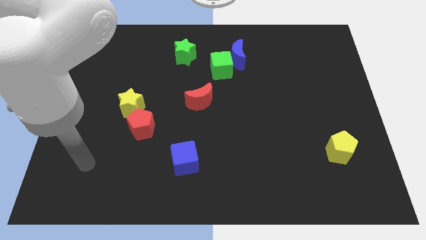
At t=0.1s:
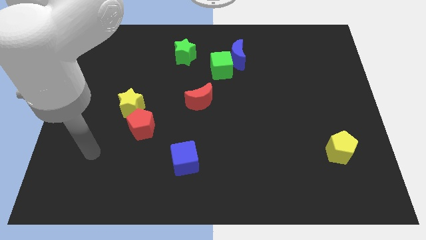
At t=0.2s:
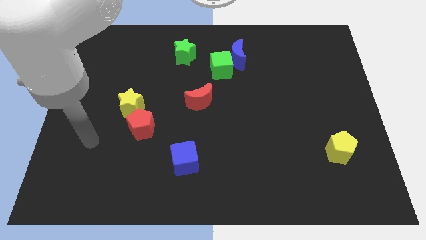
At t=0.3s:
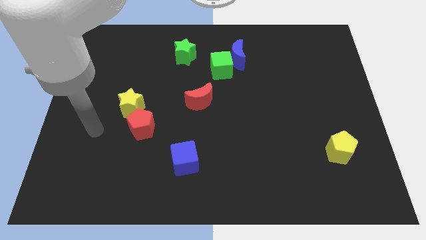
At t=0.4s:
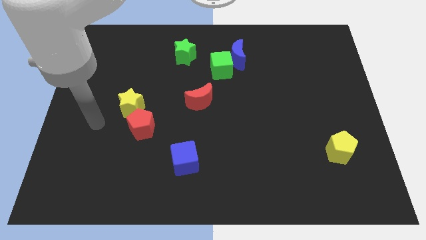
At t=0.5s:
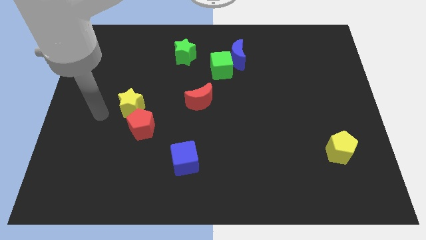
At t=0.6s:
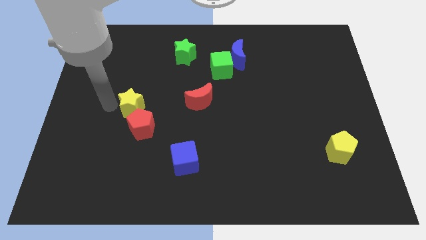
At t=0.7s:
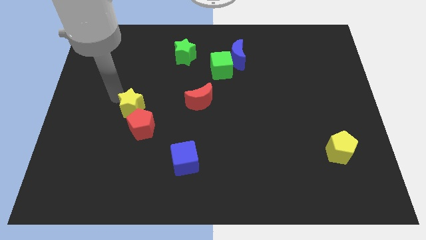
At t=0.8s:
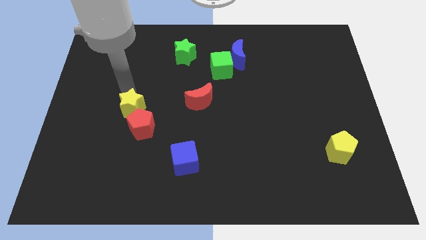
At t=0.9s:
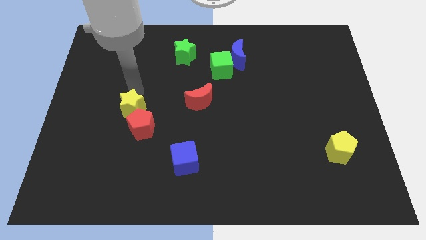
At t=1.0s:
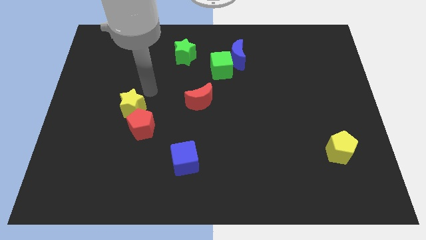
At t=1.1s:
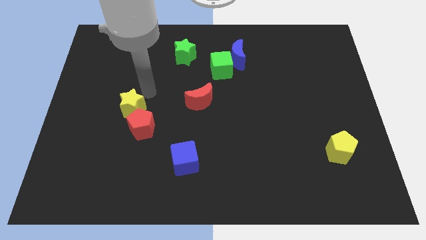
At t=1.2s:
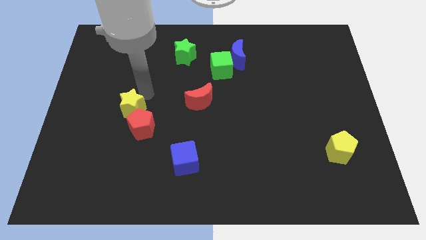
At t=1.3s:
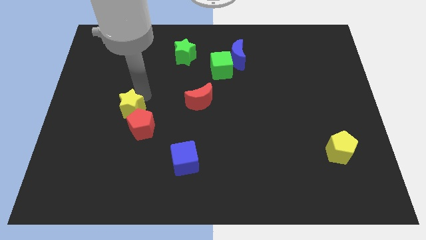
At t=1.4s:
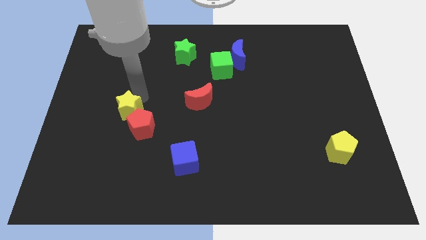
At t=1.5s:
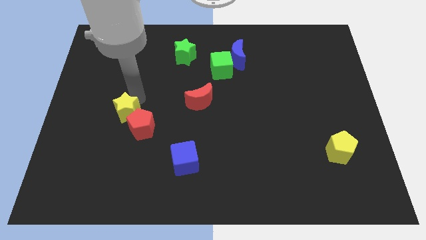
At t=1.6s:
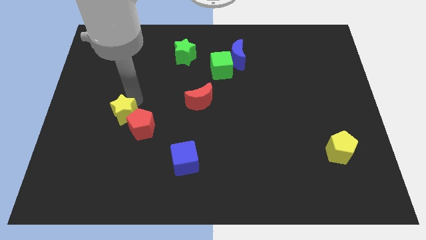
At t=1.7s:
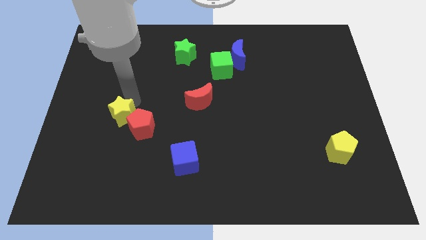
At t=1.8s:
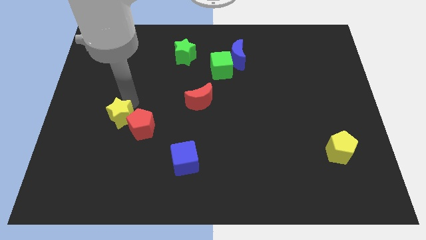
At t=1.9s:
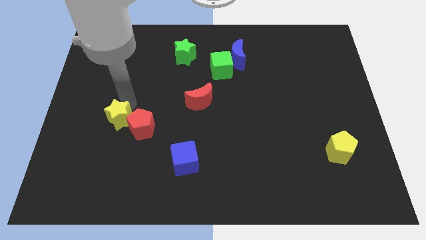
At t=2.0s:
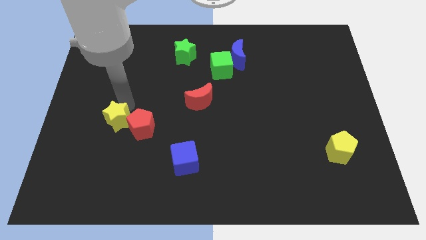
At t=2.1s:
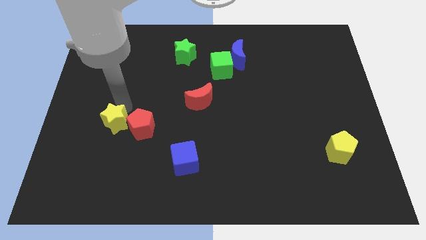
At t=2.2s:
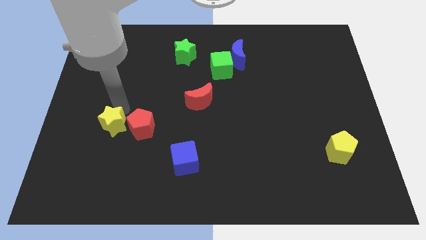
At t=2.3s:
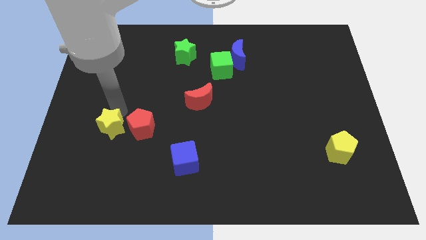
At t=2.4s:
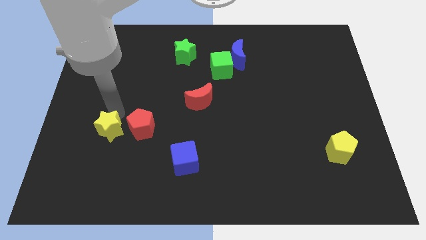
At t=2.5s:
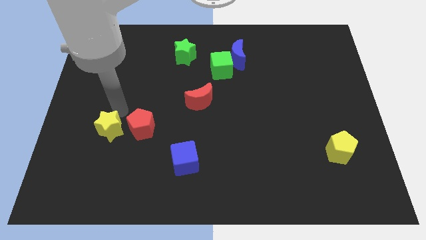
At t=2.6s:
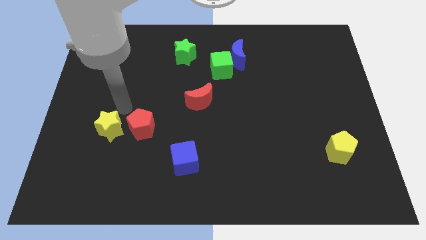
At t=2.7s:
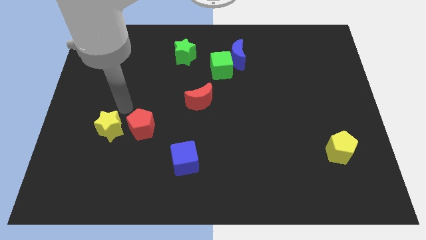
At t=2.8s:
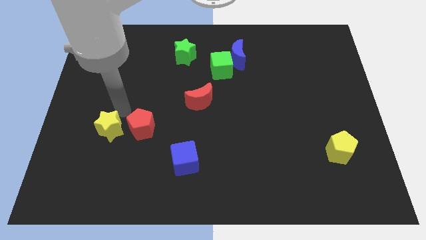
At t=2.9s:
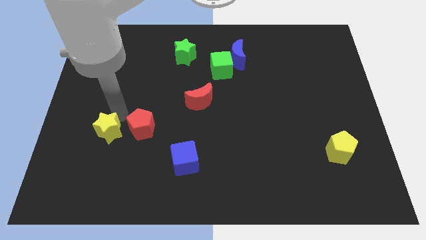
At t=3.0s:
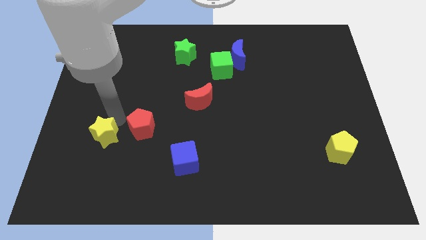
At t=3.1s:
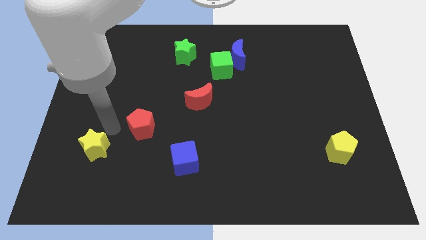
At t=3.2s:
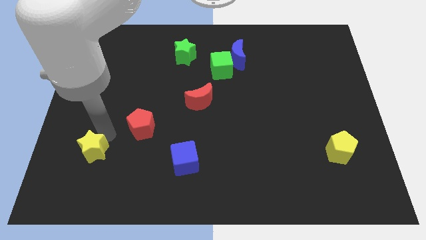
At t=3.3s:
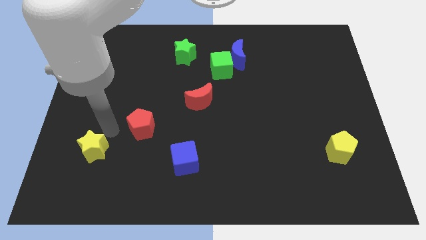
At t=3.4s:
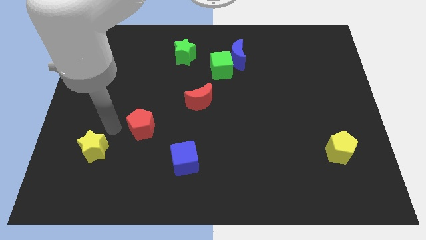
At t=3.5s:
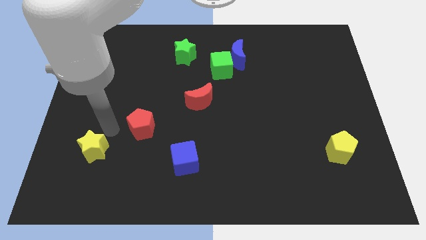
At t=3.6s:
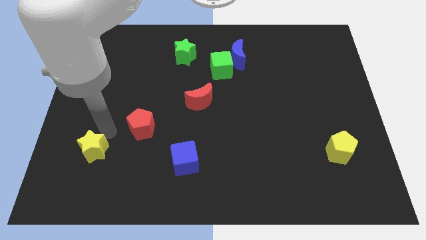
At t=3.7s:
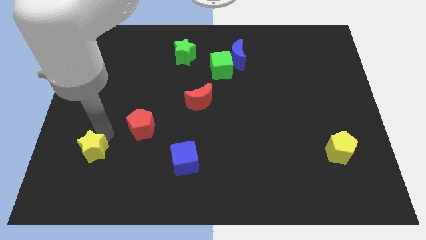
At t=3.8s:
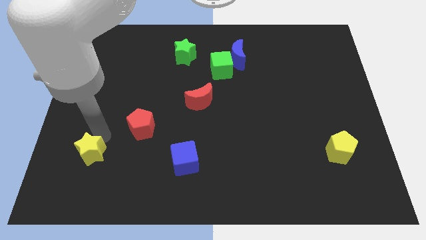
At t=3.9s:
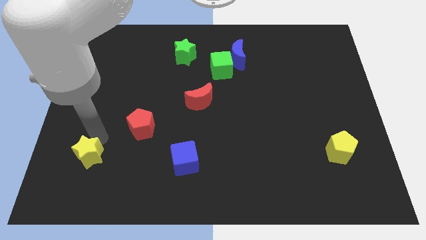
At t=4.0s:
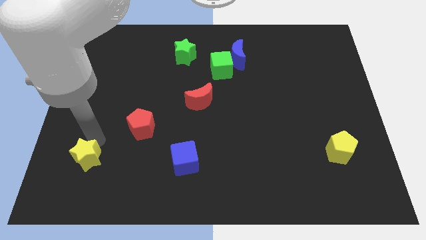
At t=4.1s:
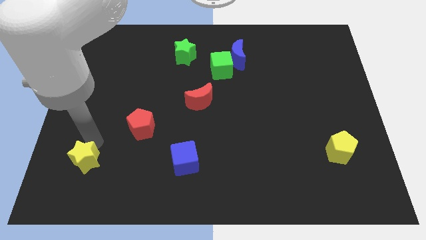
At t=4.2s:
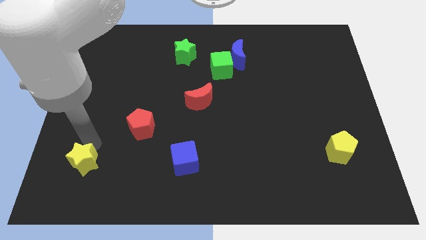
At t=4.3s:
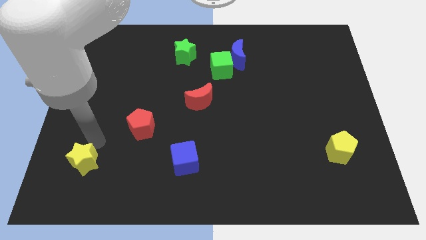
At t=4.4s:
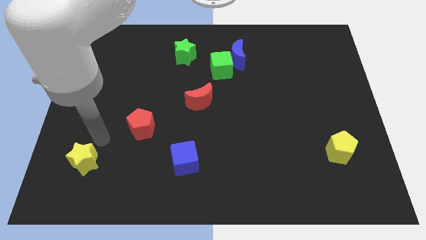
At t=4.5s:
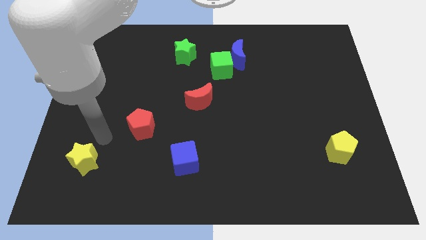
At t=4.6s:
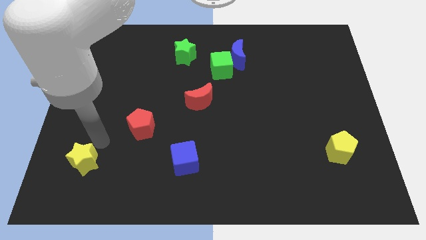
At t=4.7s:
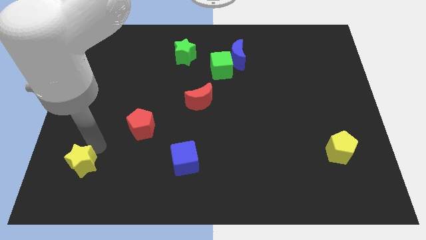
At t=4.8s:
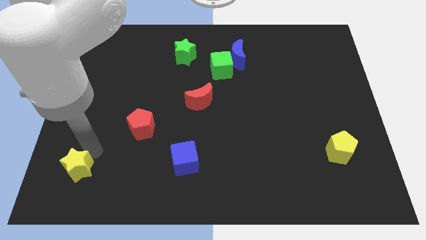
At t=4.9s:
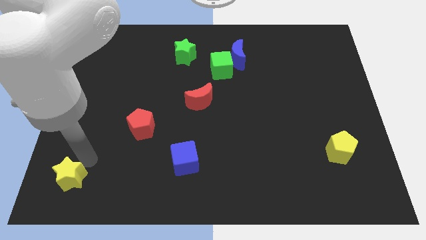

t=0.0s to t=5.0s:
move the yellow star to the bottom left of the board

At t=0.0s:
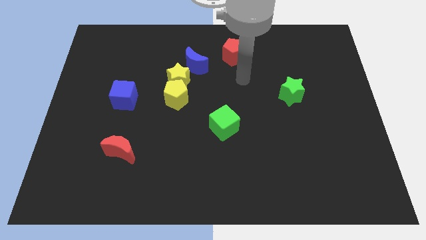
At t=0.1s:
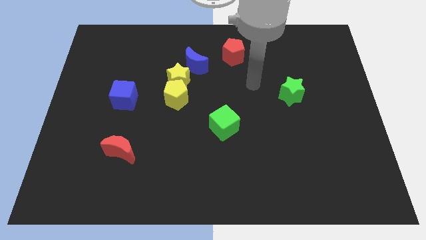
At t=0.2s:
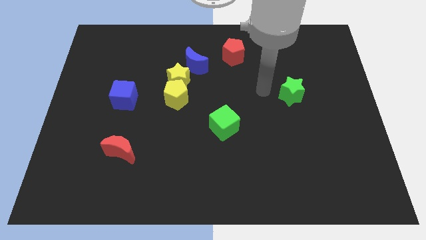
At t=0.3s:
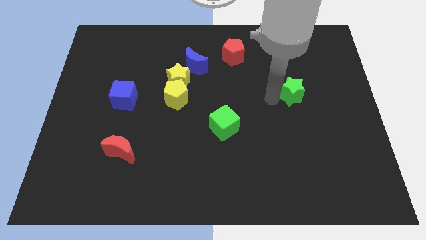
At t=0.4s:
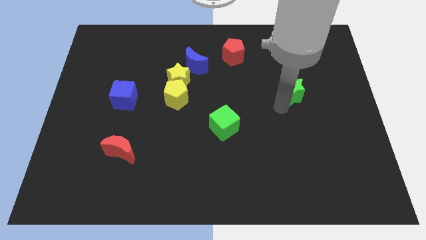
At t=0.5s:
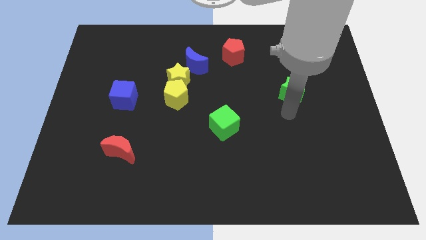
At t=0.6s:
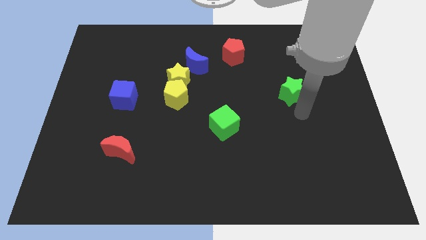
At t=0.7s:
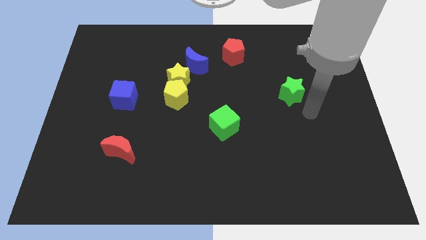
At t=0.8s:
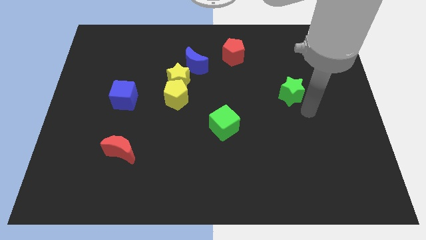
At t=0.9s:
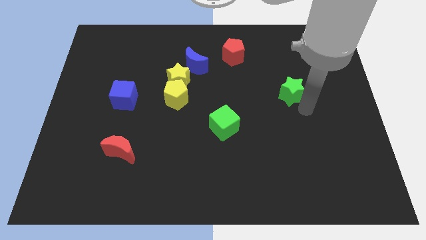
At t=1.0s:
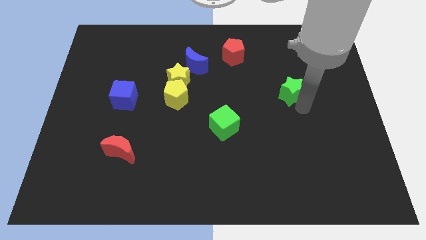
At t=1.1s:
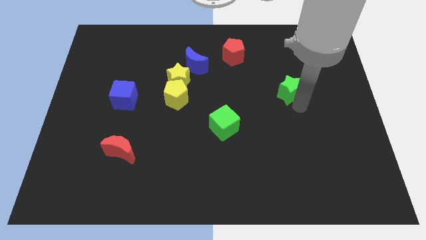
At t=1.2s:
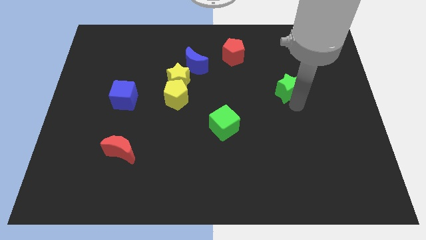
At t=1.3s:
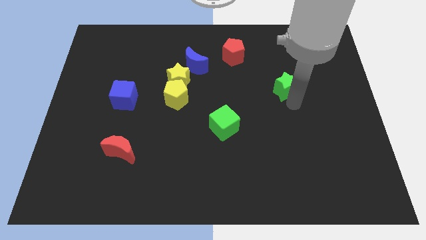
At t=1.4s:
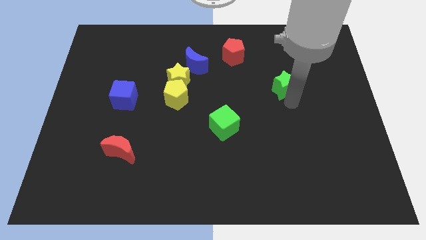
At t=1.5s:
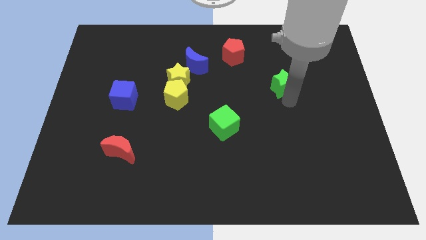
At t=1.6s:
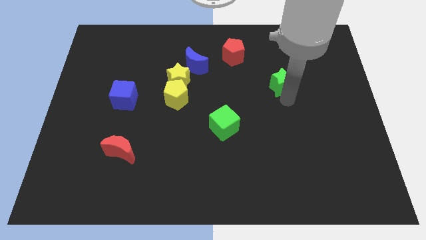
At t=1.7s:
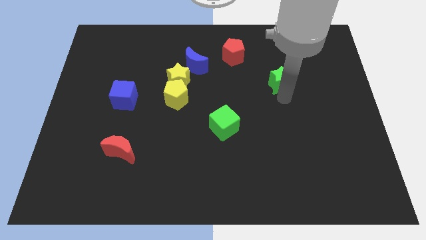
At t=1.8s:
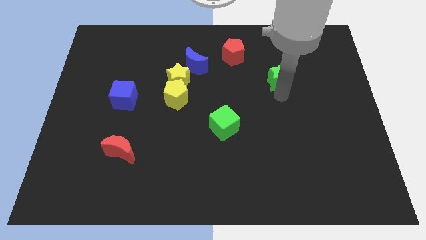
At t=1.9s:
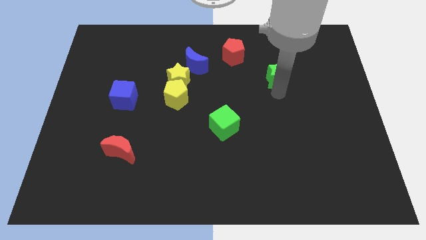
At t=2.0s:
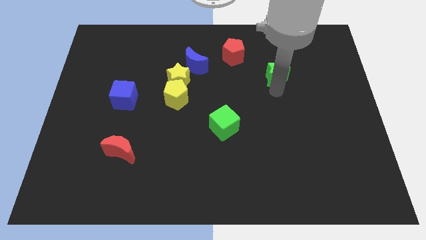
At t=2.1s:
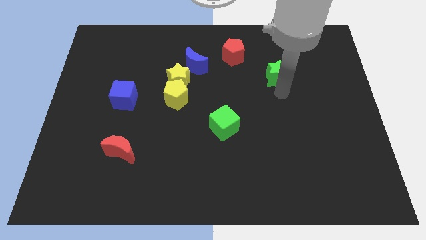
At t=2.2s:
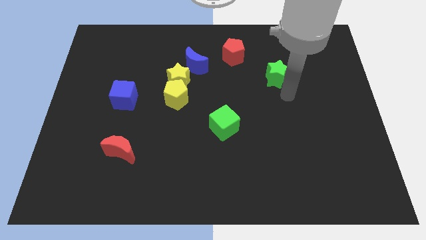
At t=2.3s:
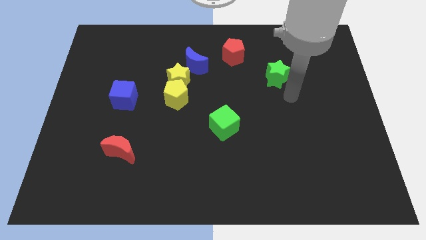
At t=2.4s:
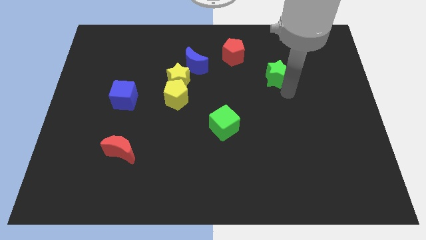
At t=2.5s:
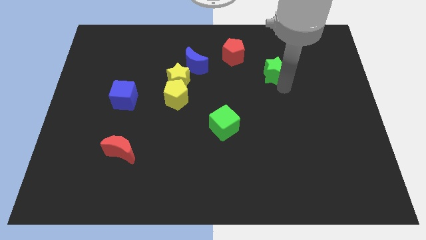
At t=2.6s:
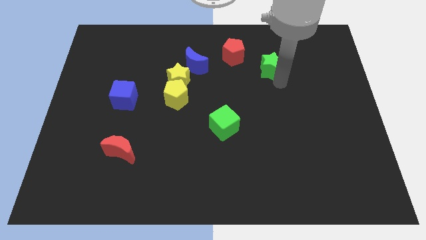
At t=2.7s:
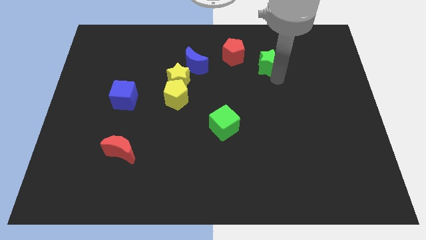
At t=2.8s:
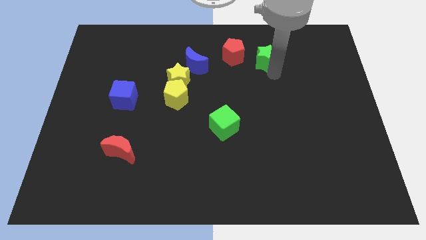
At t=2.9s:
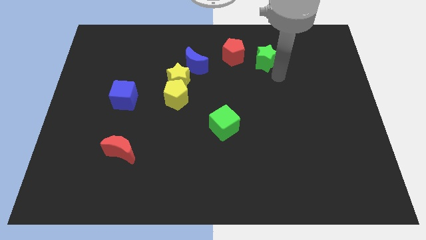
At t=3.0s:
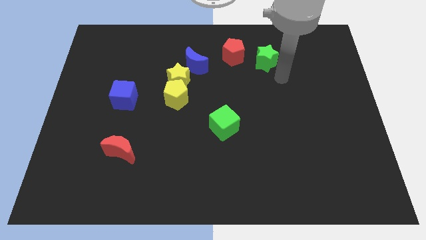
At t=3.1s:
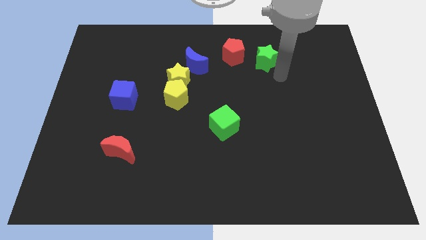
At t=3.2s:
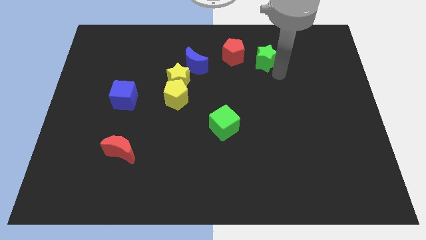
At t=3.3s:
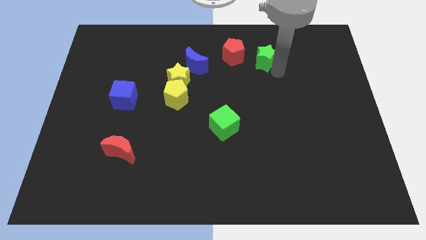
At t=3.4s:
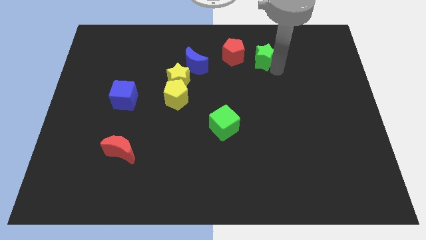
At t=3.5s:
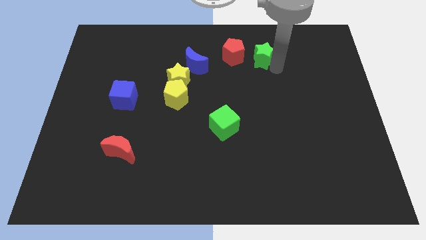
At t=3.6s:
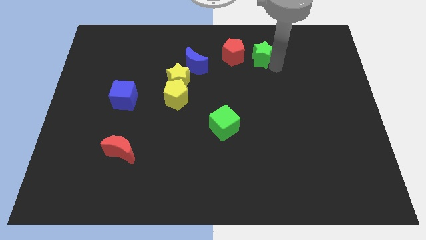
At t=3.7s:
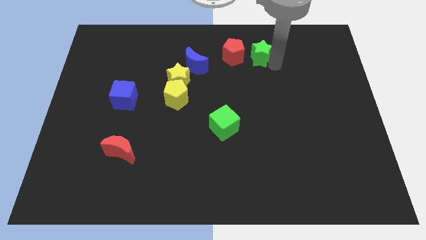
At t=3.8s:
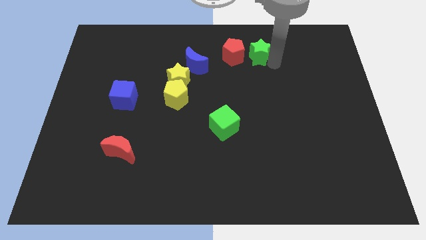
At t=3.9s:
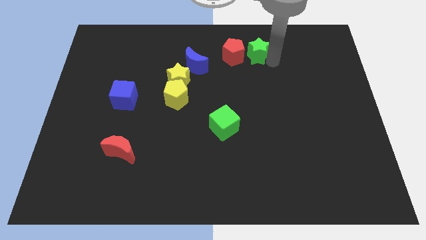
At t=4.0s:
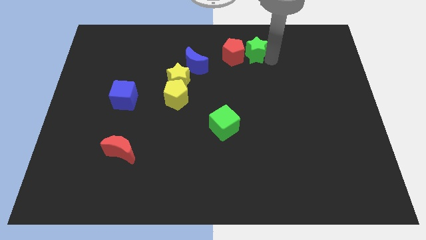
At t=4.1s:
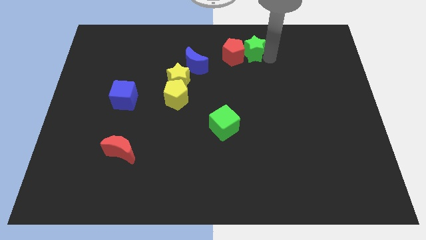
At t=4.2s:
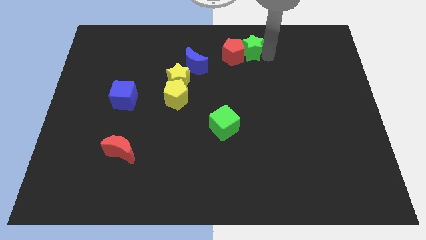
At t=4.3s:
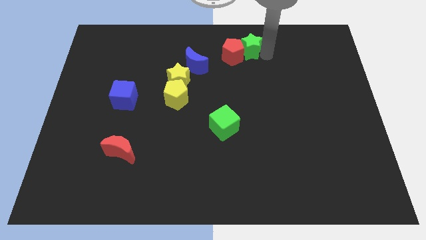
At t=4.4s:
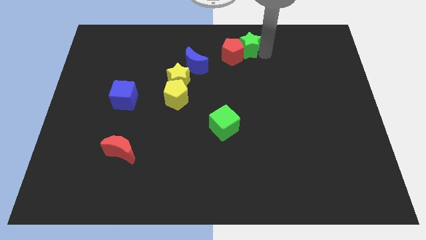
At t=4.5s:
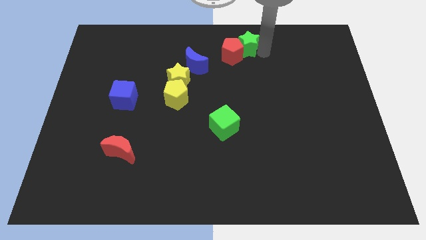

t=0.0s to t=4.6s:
put the green star to the towards your base
